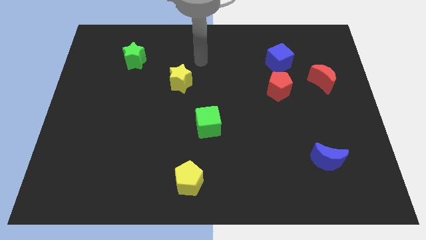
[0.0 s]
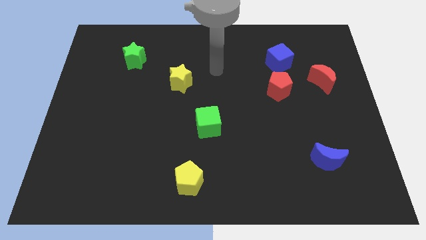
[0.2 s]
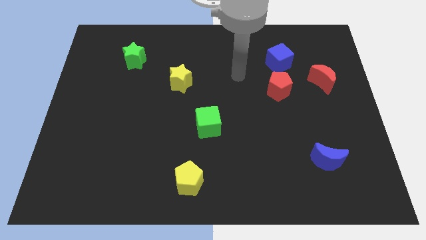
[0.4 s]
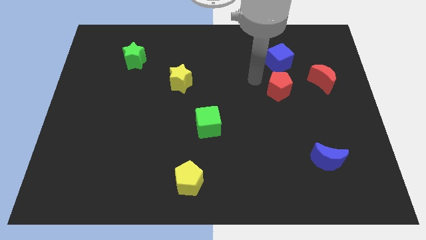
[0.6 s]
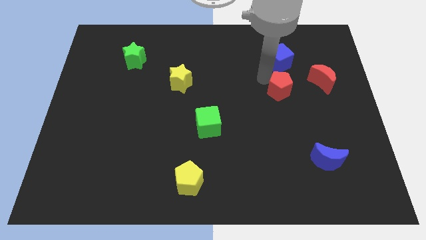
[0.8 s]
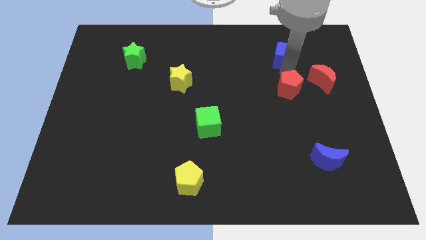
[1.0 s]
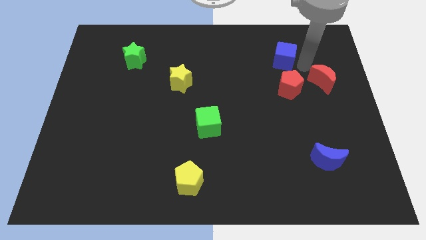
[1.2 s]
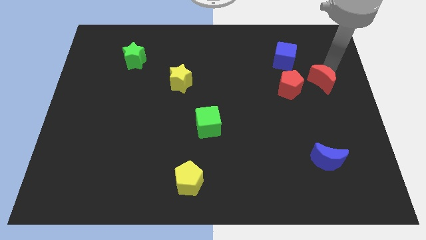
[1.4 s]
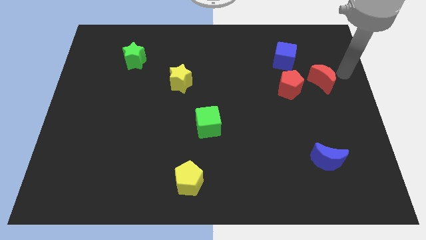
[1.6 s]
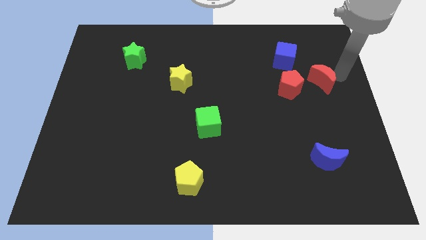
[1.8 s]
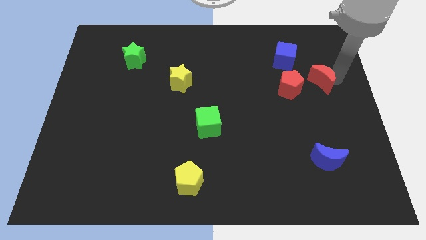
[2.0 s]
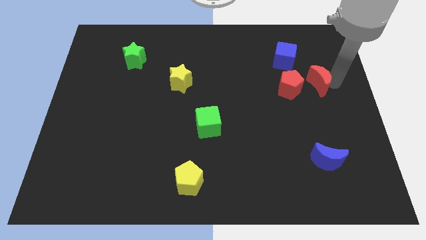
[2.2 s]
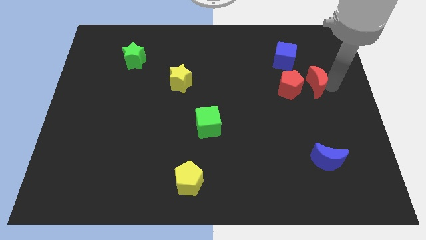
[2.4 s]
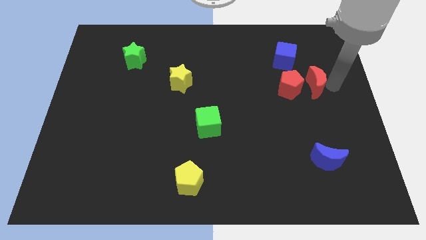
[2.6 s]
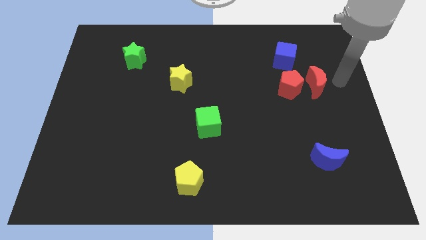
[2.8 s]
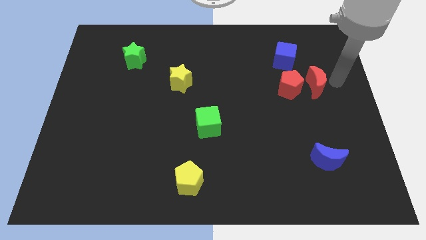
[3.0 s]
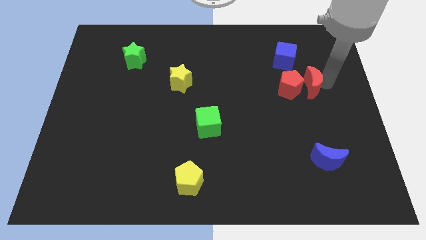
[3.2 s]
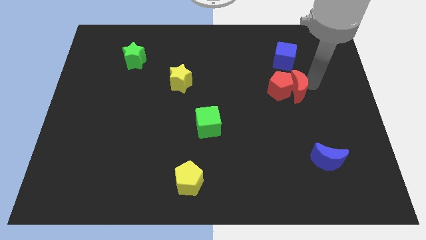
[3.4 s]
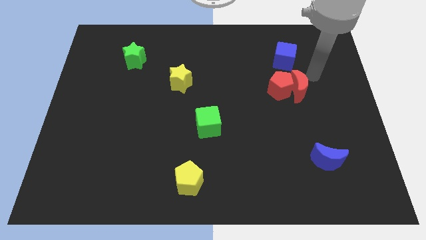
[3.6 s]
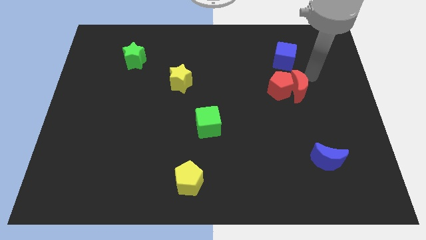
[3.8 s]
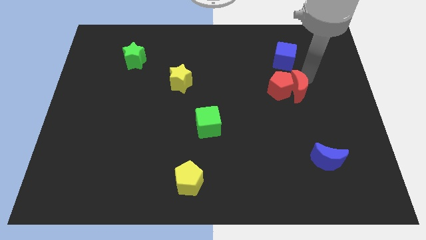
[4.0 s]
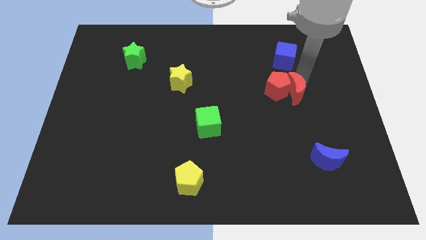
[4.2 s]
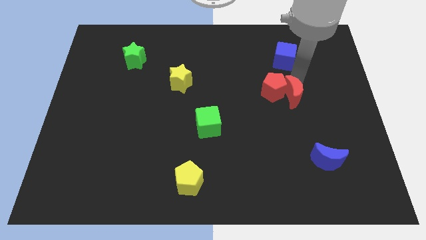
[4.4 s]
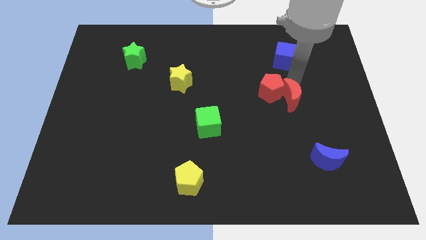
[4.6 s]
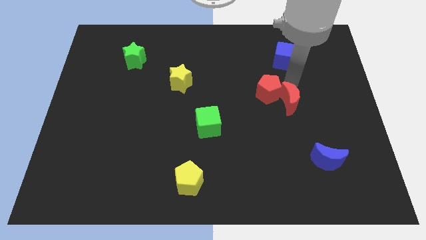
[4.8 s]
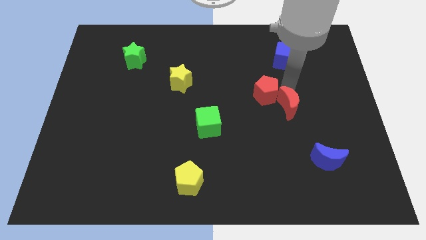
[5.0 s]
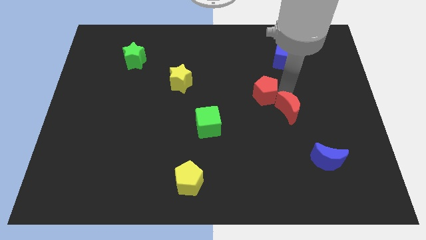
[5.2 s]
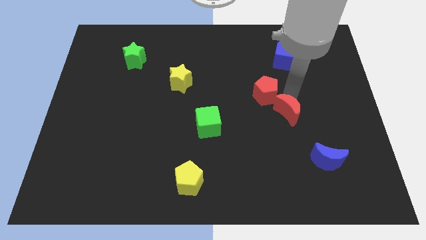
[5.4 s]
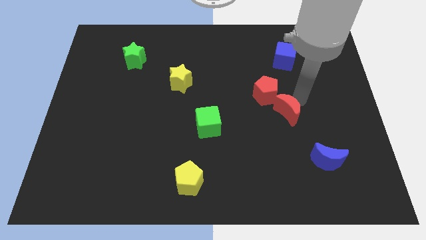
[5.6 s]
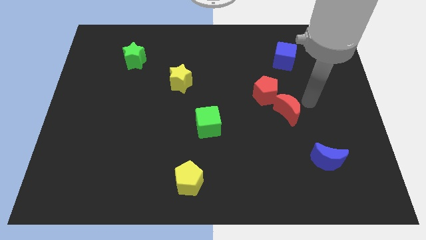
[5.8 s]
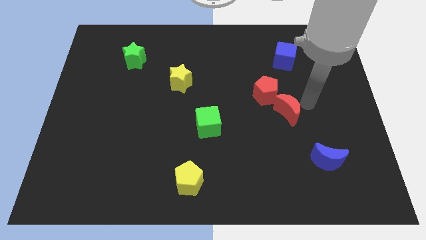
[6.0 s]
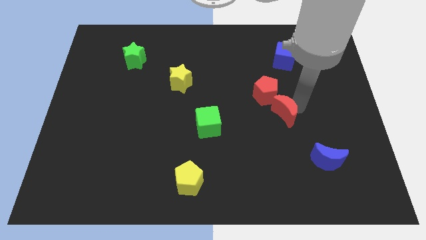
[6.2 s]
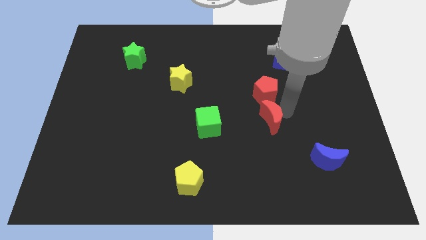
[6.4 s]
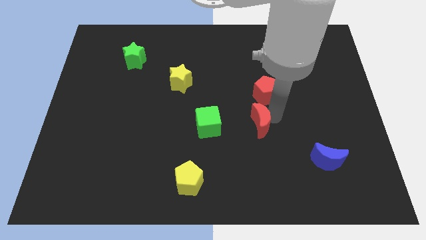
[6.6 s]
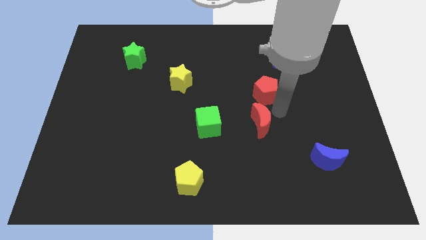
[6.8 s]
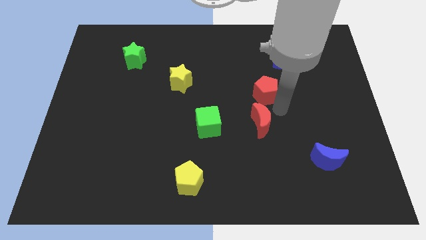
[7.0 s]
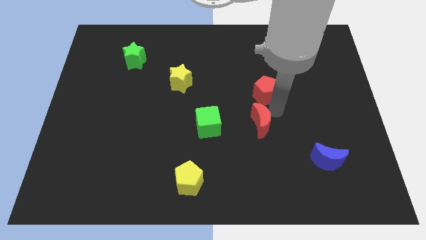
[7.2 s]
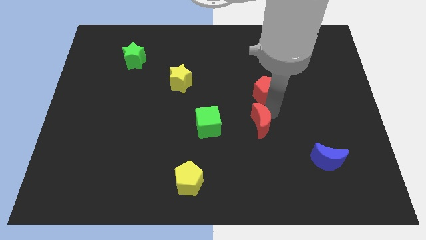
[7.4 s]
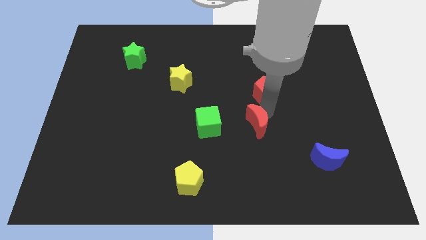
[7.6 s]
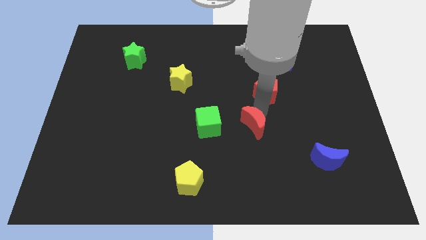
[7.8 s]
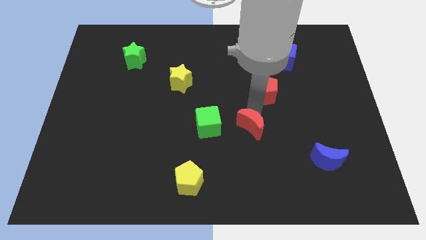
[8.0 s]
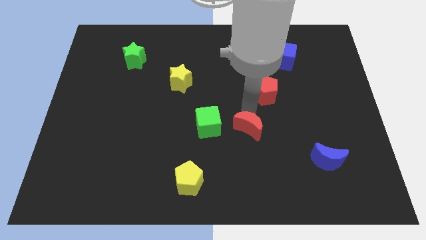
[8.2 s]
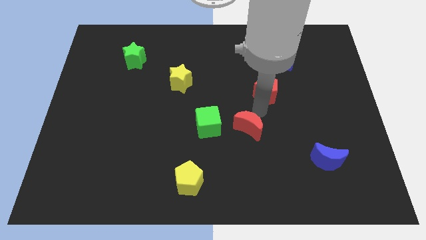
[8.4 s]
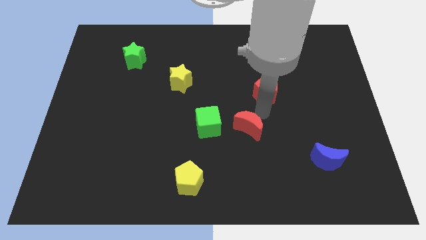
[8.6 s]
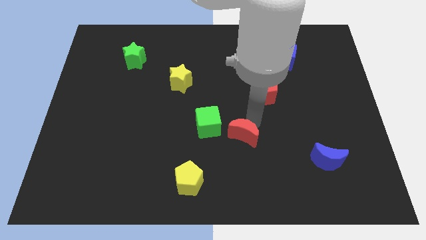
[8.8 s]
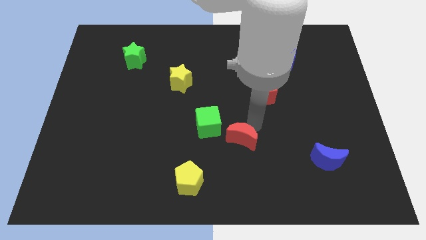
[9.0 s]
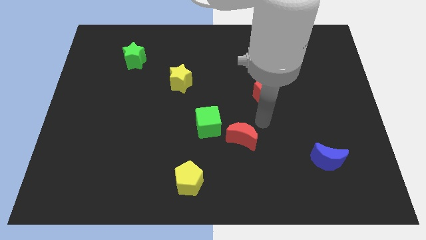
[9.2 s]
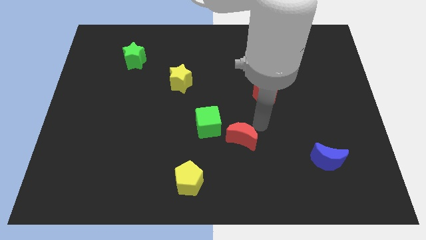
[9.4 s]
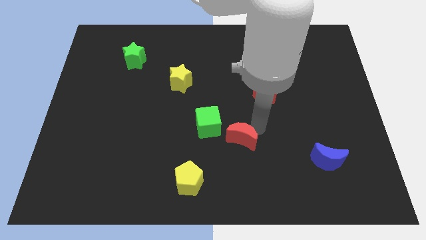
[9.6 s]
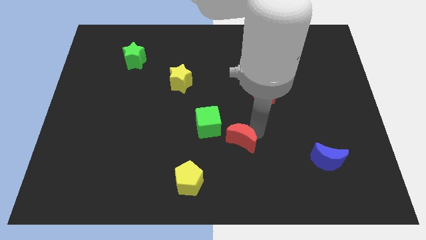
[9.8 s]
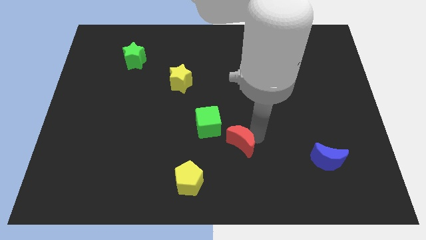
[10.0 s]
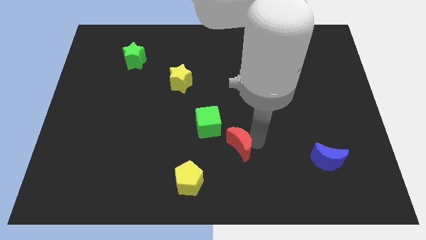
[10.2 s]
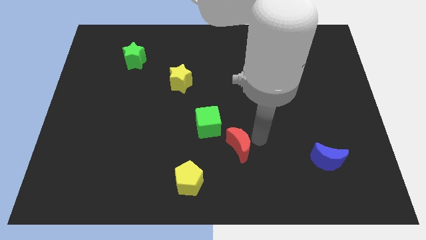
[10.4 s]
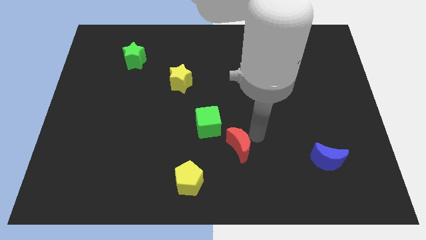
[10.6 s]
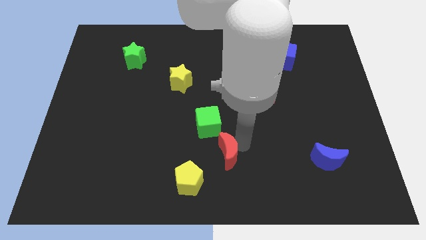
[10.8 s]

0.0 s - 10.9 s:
slide the red moon to the bottom side of the green cube

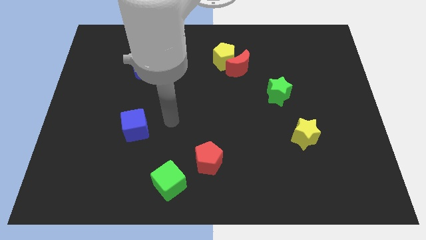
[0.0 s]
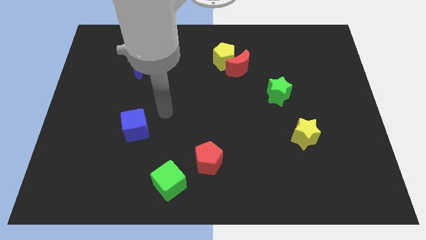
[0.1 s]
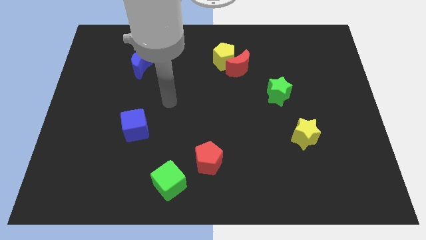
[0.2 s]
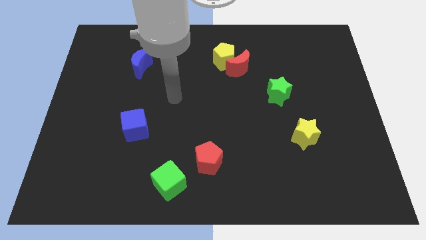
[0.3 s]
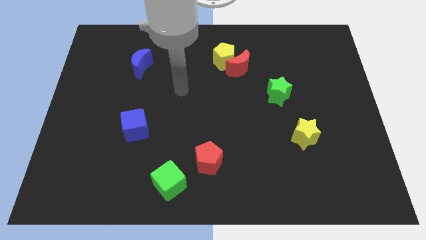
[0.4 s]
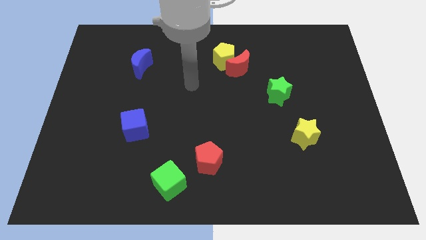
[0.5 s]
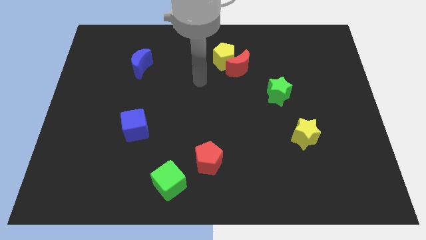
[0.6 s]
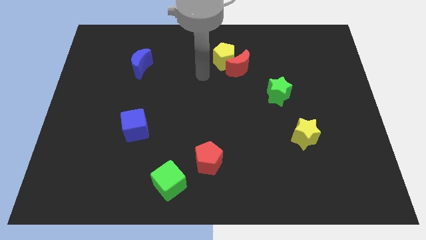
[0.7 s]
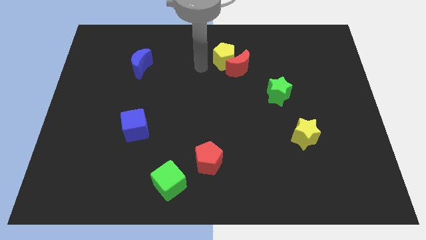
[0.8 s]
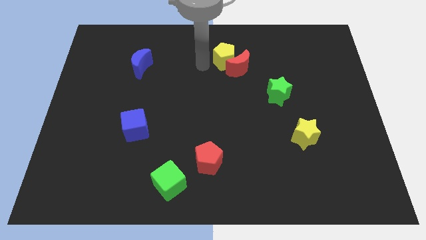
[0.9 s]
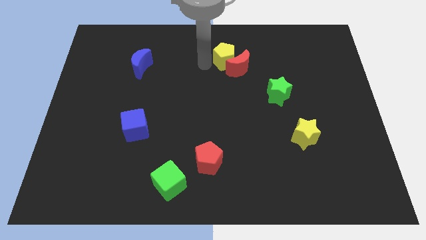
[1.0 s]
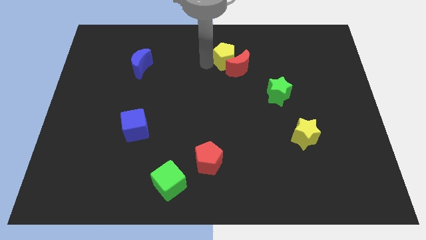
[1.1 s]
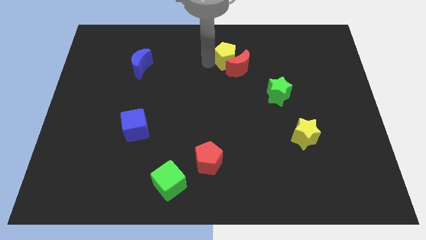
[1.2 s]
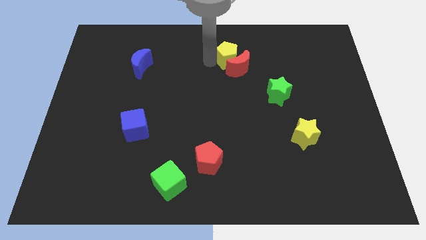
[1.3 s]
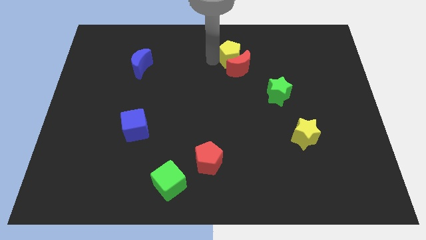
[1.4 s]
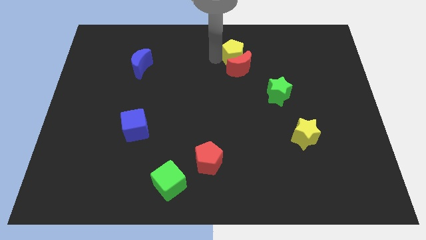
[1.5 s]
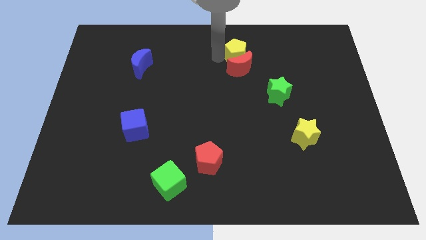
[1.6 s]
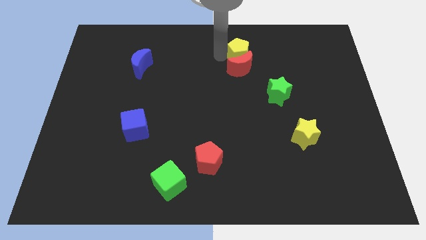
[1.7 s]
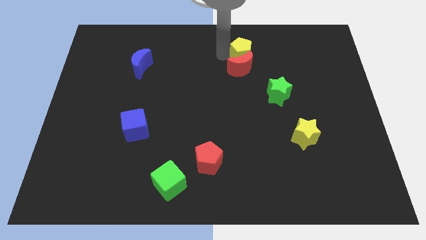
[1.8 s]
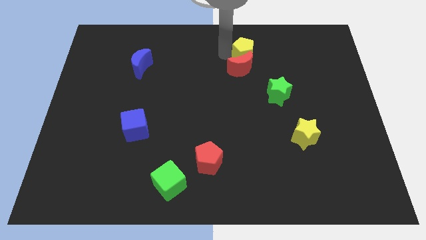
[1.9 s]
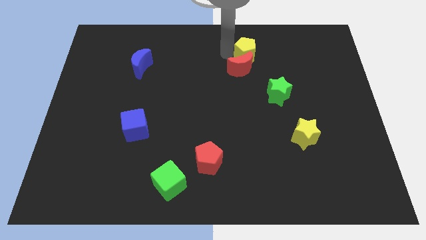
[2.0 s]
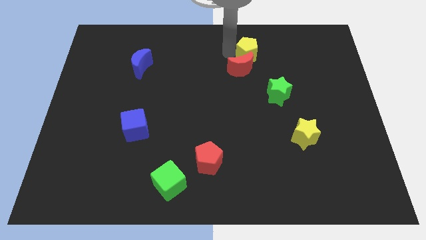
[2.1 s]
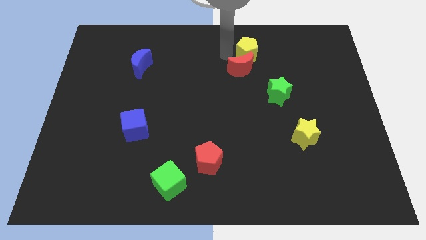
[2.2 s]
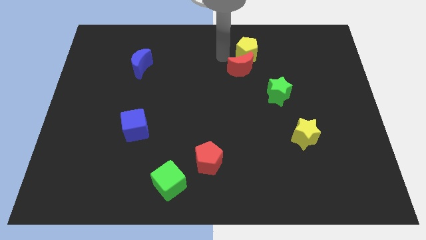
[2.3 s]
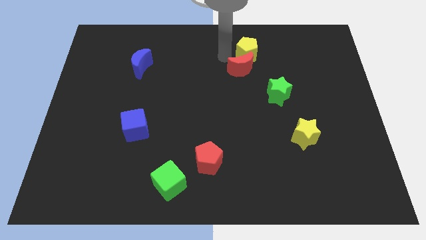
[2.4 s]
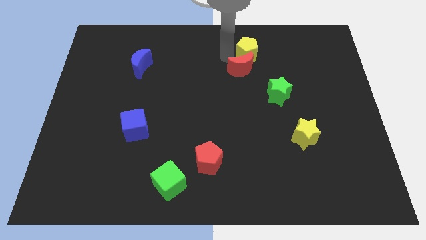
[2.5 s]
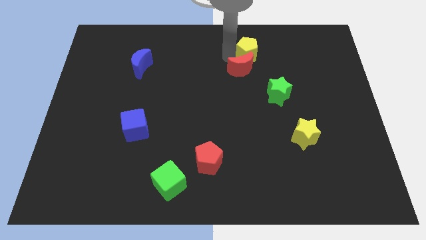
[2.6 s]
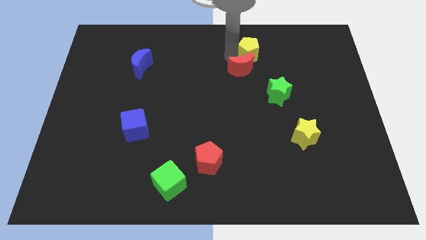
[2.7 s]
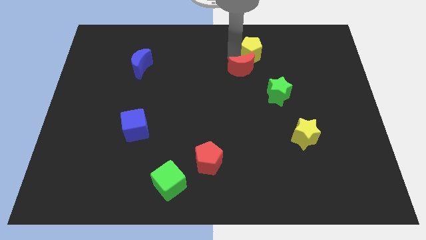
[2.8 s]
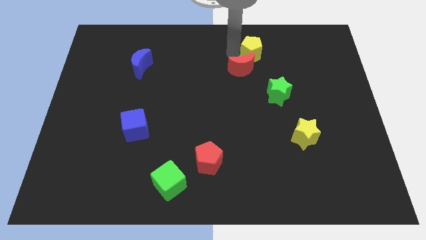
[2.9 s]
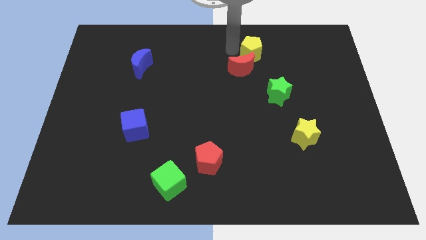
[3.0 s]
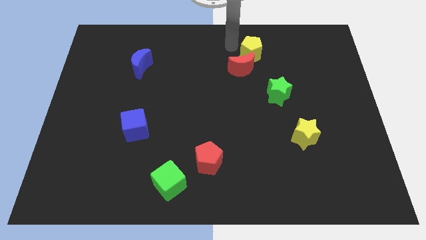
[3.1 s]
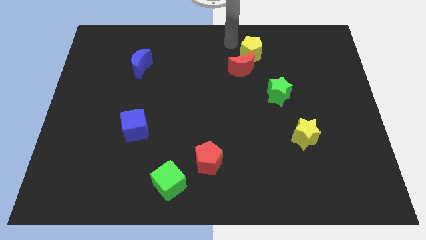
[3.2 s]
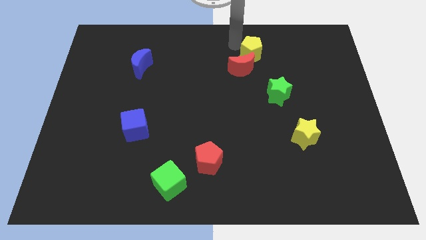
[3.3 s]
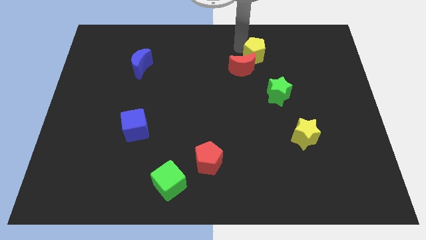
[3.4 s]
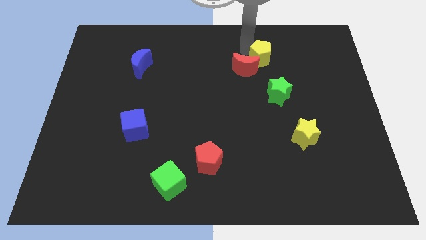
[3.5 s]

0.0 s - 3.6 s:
slide the yellow pentagon to the top of the green star
